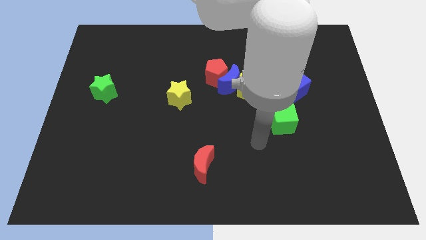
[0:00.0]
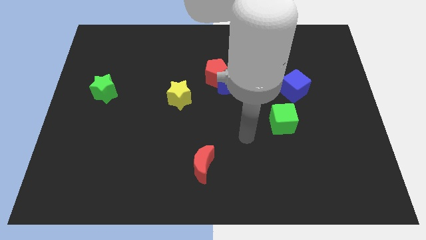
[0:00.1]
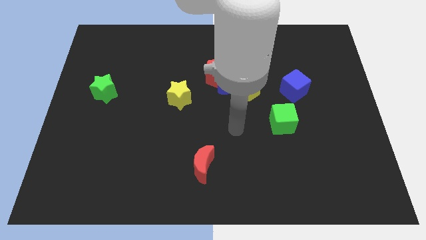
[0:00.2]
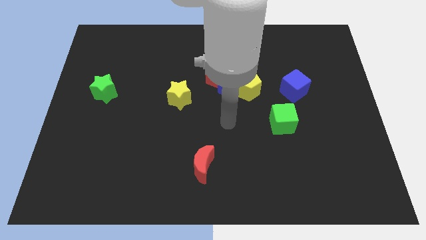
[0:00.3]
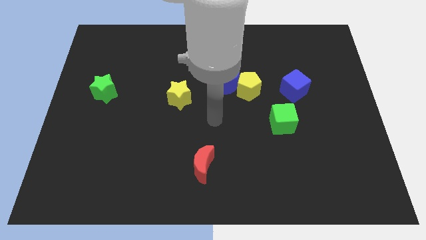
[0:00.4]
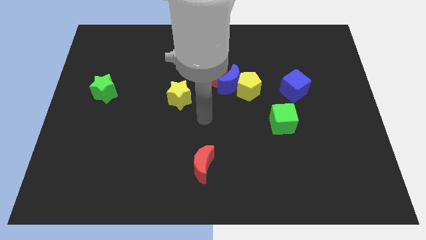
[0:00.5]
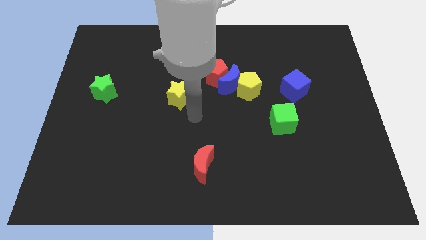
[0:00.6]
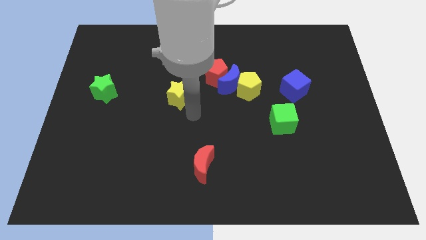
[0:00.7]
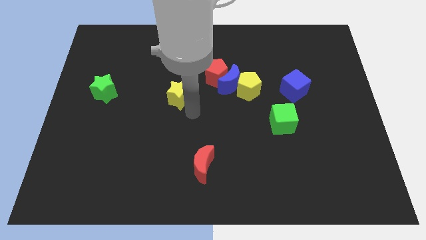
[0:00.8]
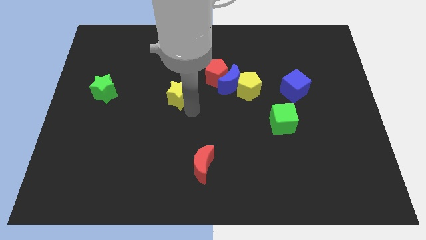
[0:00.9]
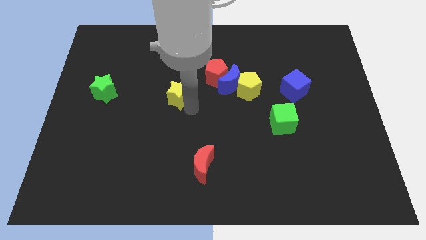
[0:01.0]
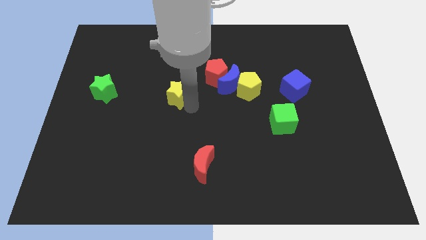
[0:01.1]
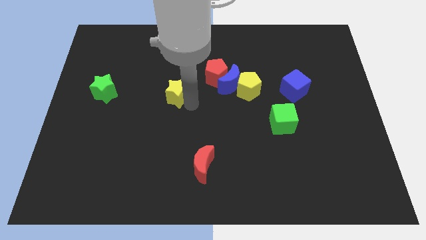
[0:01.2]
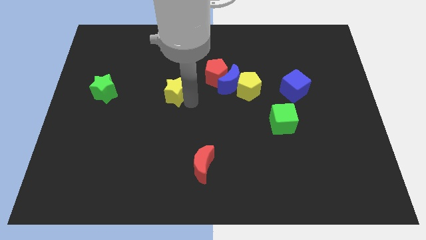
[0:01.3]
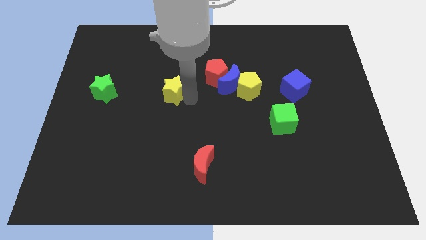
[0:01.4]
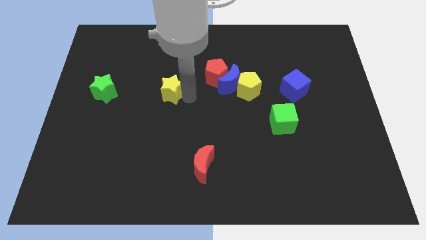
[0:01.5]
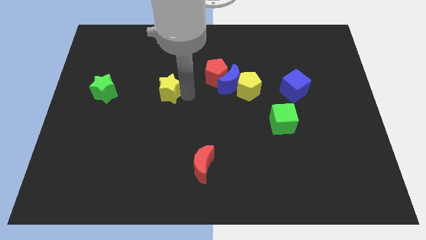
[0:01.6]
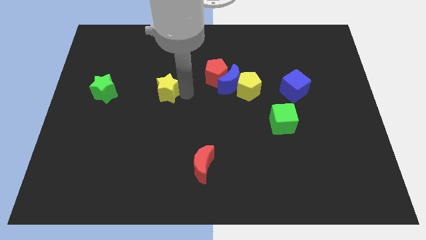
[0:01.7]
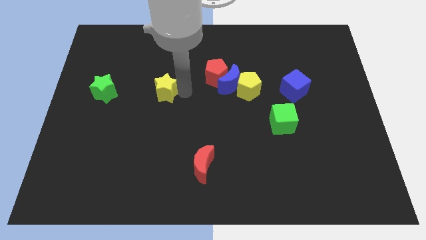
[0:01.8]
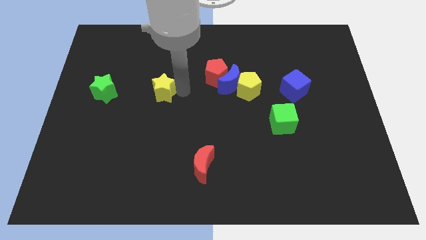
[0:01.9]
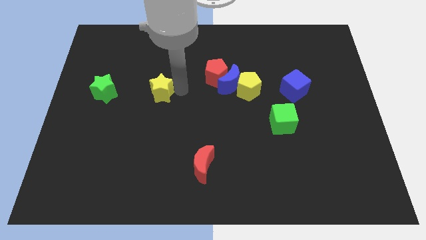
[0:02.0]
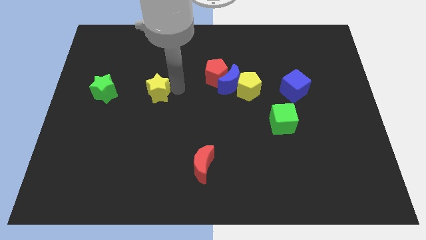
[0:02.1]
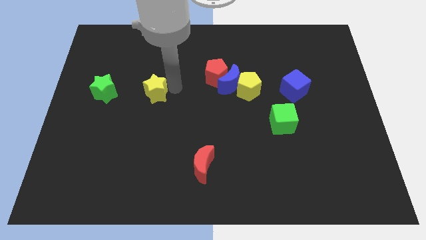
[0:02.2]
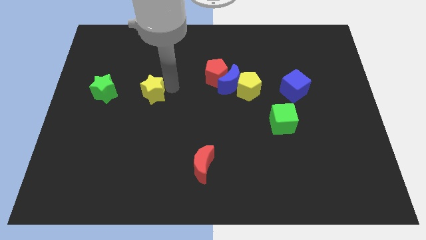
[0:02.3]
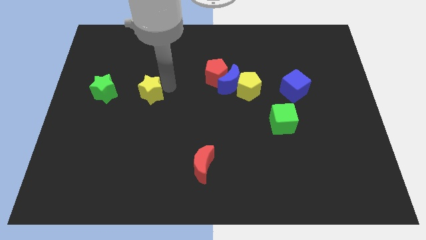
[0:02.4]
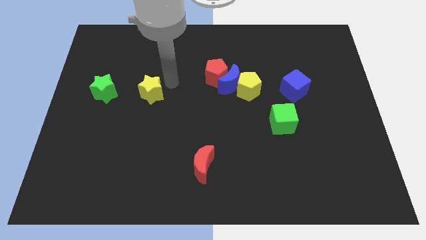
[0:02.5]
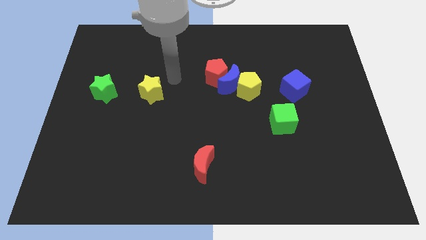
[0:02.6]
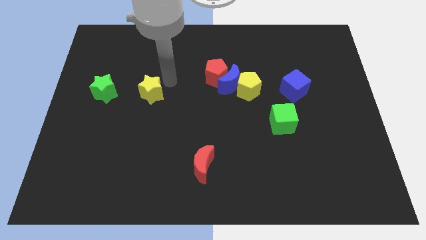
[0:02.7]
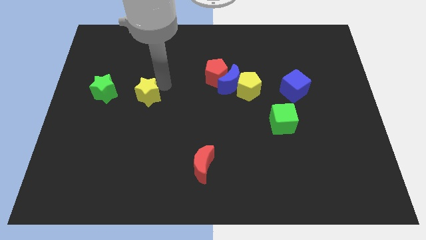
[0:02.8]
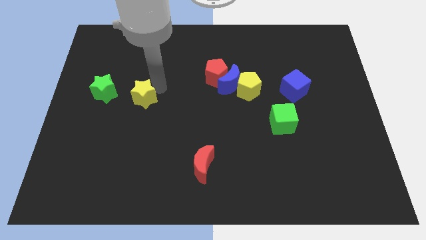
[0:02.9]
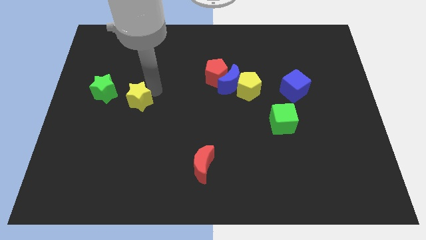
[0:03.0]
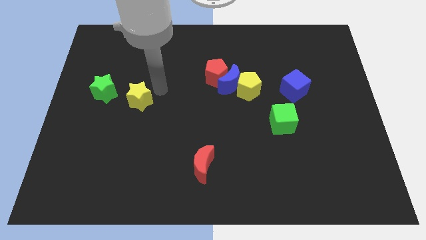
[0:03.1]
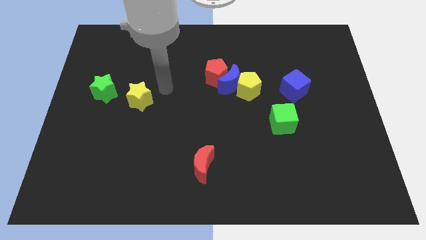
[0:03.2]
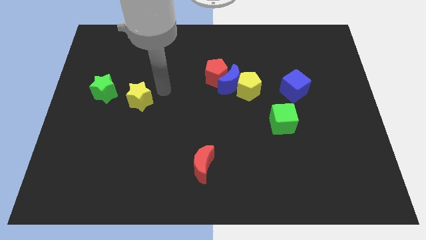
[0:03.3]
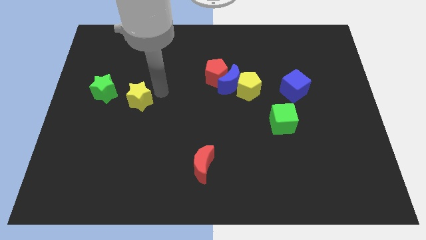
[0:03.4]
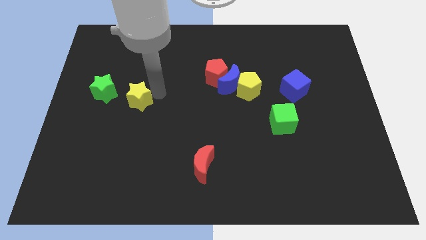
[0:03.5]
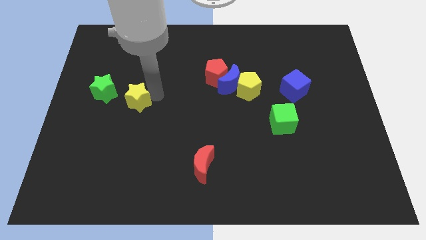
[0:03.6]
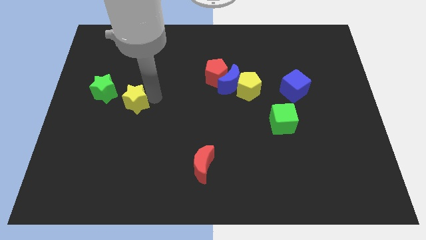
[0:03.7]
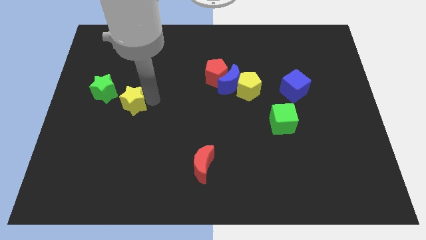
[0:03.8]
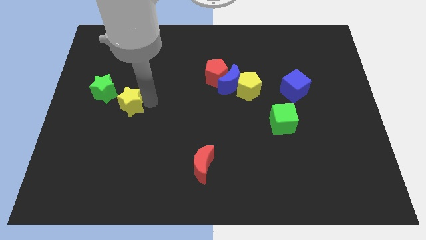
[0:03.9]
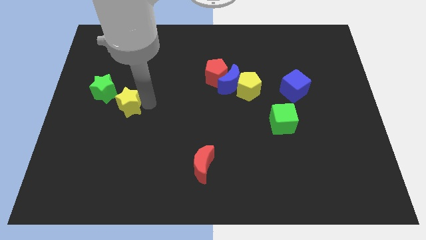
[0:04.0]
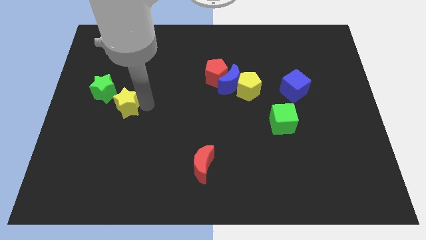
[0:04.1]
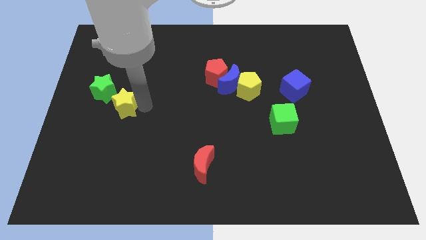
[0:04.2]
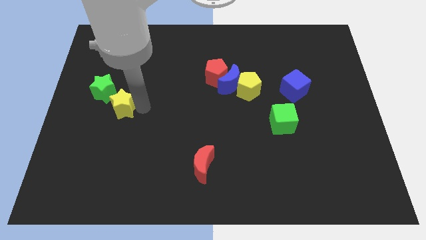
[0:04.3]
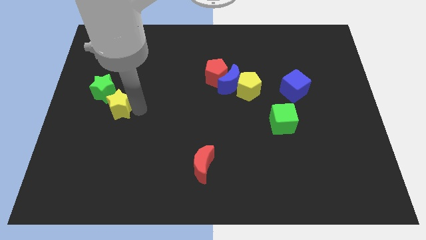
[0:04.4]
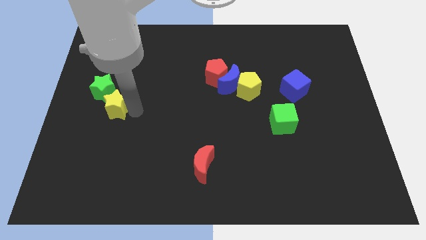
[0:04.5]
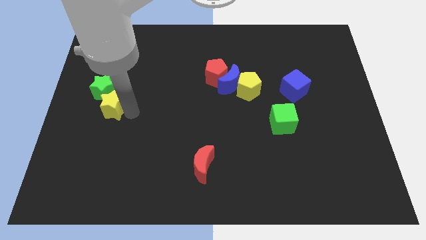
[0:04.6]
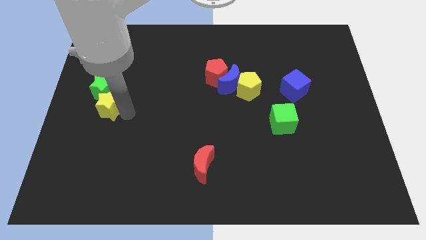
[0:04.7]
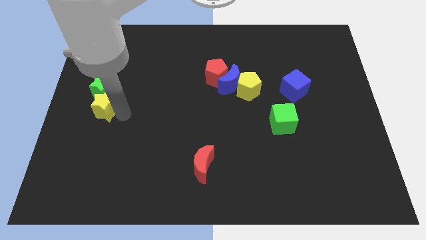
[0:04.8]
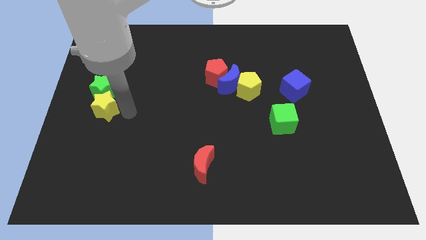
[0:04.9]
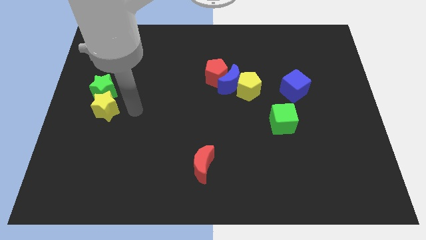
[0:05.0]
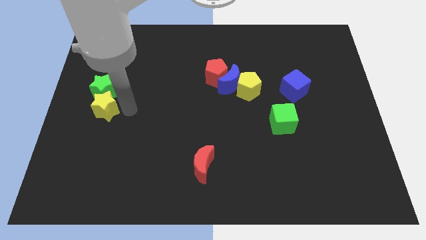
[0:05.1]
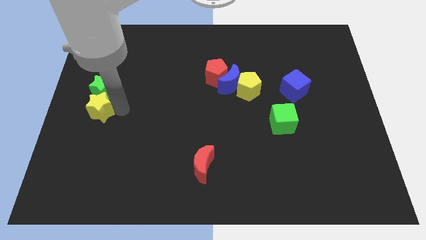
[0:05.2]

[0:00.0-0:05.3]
slide the yellow star to the left side

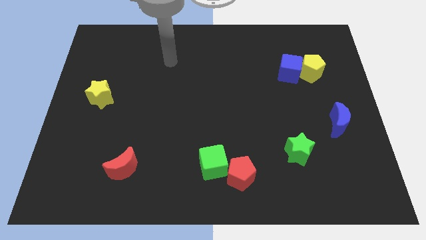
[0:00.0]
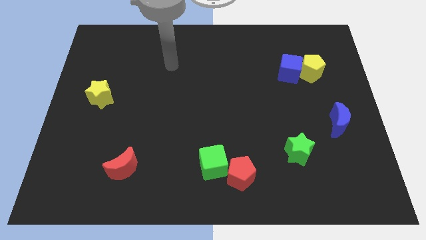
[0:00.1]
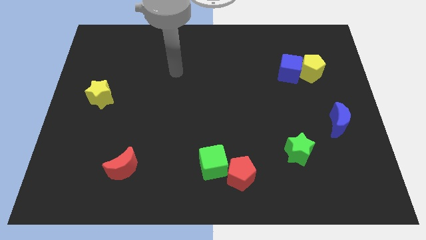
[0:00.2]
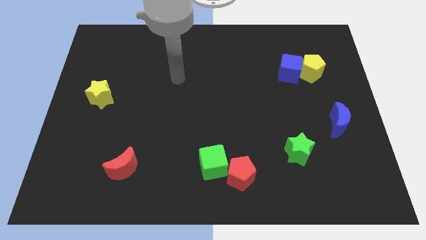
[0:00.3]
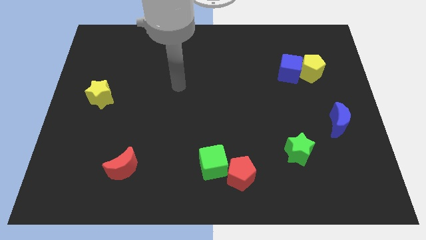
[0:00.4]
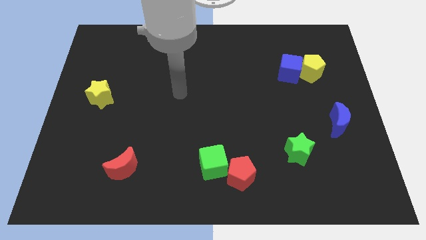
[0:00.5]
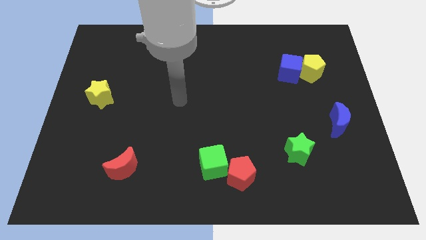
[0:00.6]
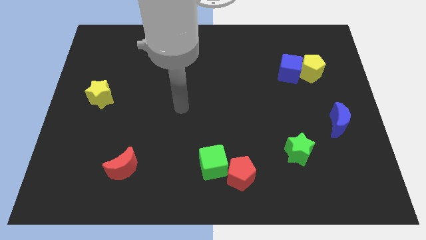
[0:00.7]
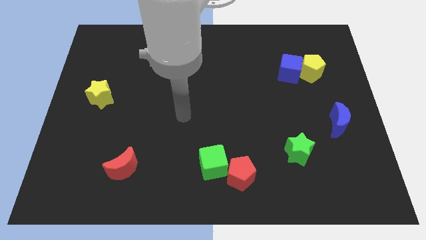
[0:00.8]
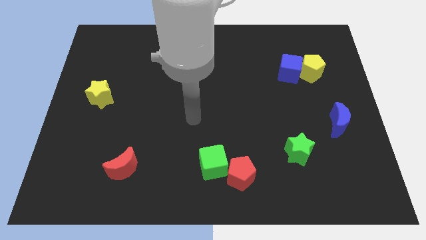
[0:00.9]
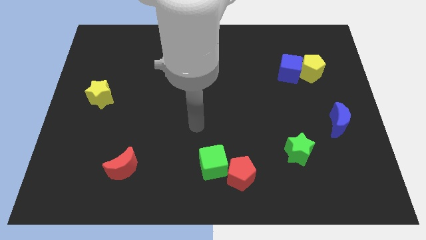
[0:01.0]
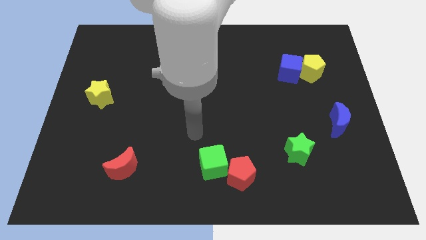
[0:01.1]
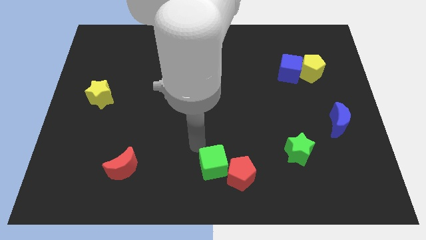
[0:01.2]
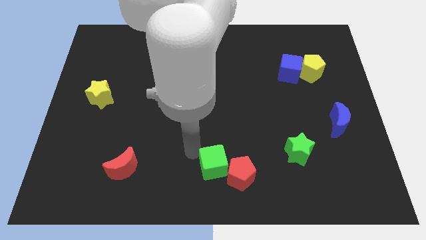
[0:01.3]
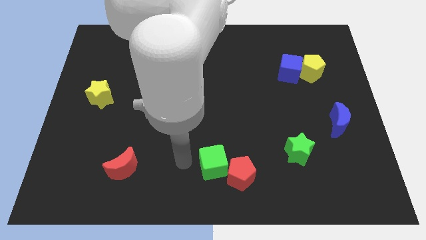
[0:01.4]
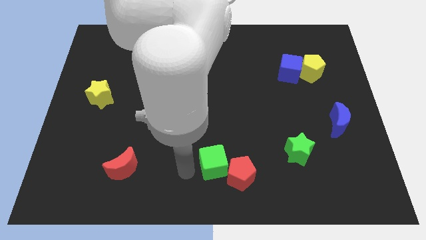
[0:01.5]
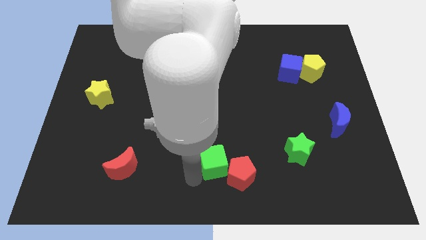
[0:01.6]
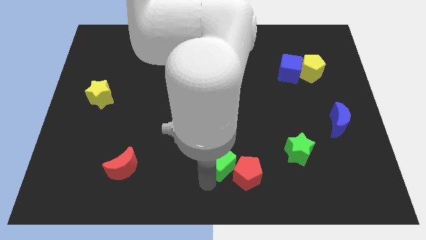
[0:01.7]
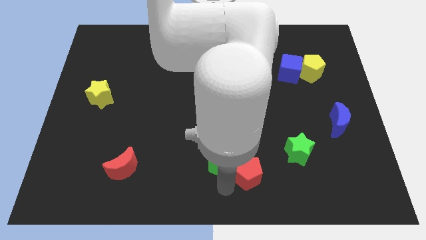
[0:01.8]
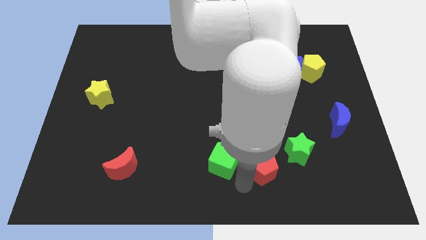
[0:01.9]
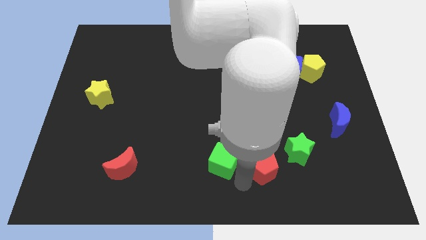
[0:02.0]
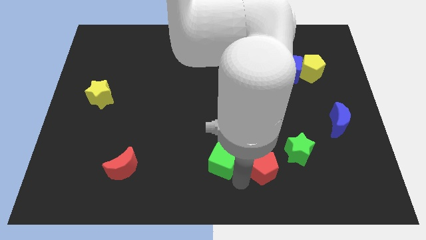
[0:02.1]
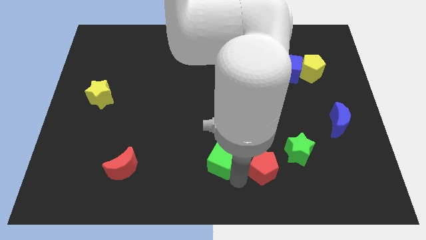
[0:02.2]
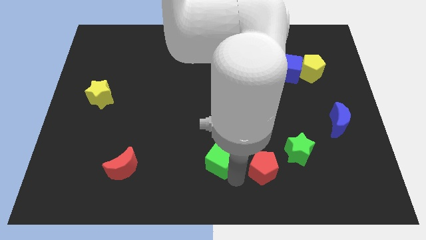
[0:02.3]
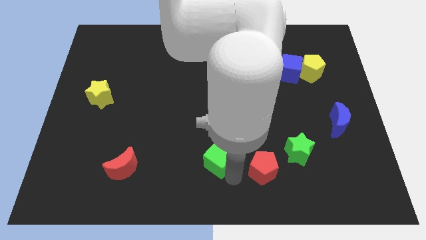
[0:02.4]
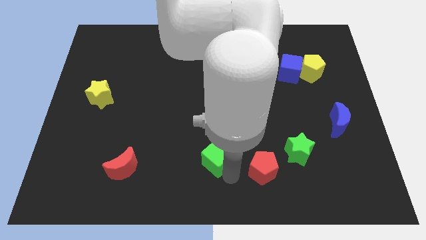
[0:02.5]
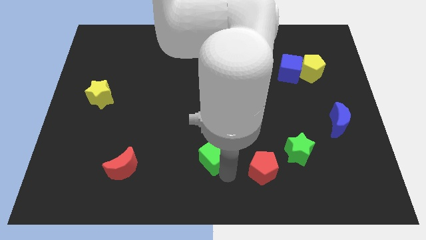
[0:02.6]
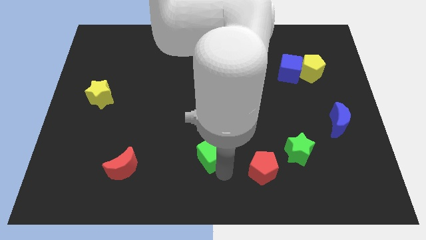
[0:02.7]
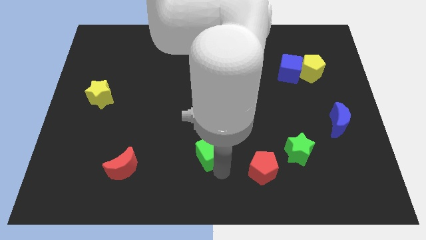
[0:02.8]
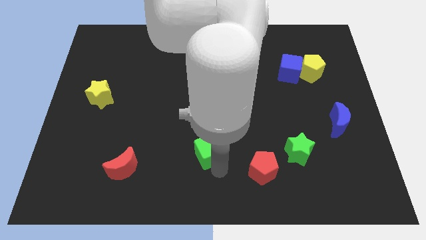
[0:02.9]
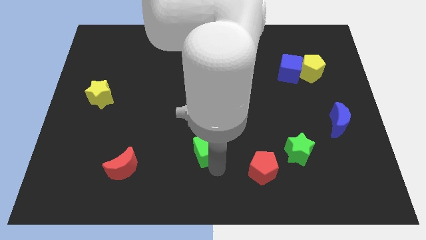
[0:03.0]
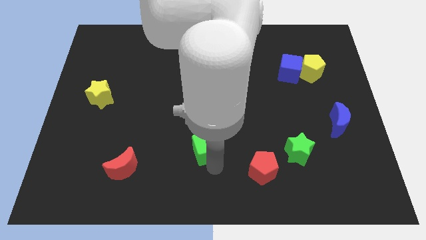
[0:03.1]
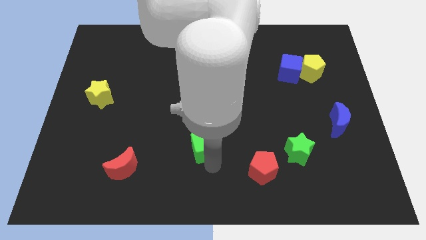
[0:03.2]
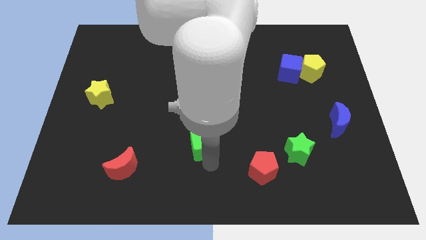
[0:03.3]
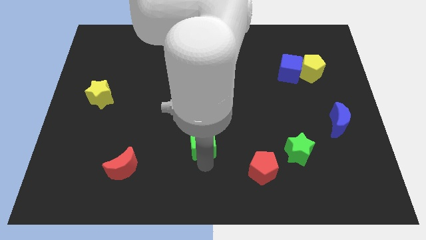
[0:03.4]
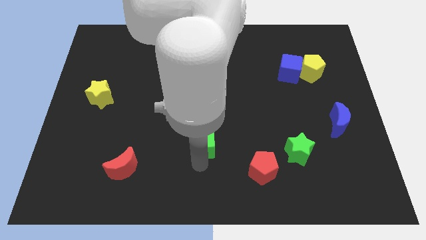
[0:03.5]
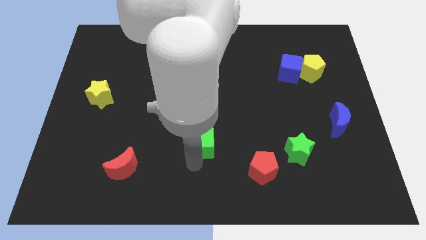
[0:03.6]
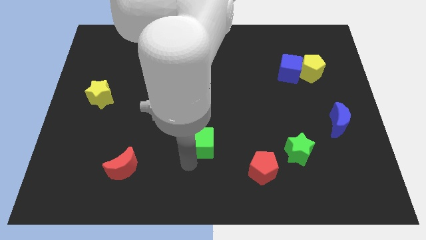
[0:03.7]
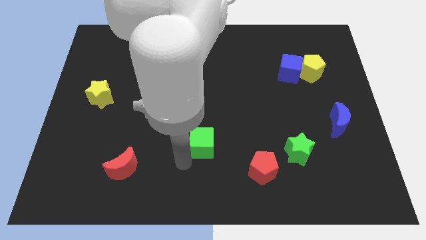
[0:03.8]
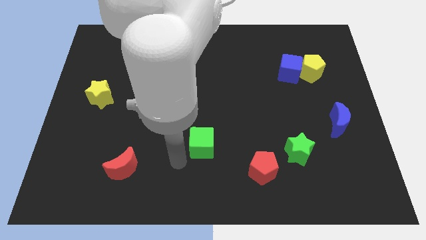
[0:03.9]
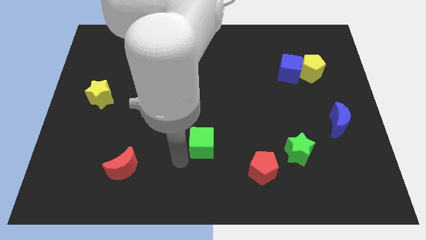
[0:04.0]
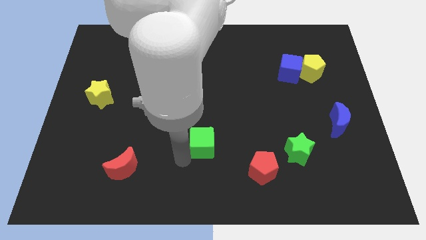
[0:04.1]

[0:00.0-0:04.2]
move the green cube to the center of the board
